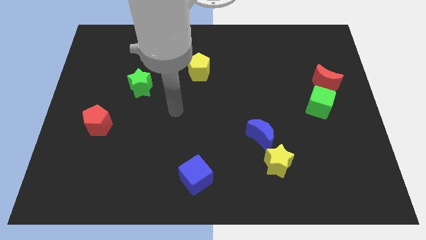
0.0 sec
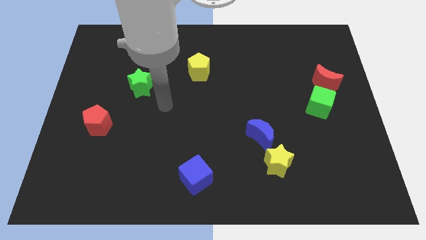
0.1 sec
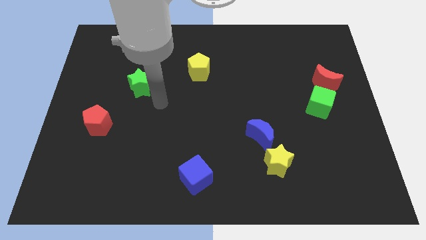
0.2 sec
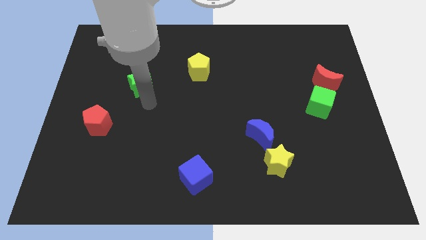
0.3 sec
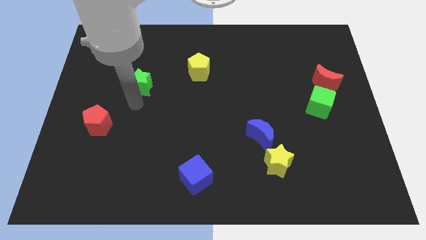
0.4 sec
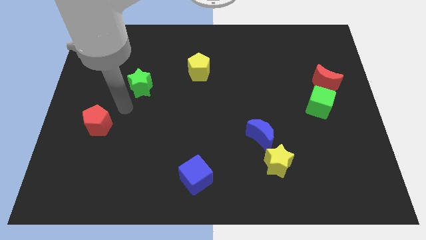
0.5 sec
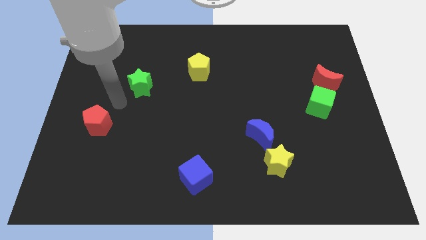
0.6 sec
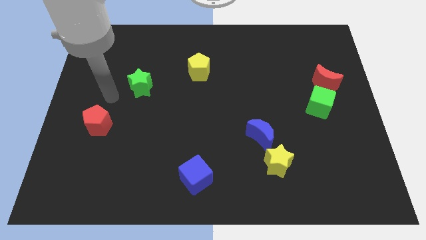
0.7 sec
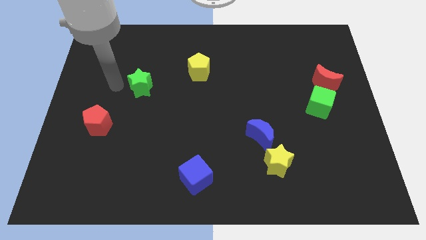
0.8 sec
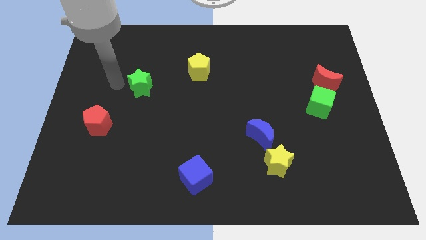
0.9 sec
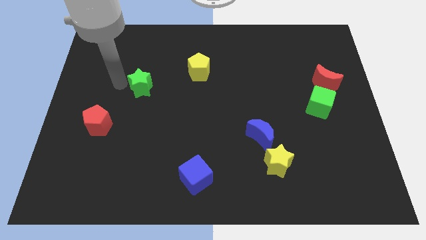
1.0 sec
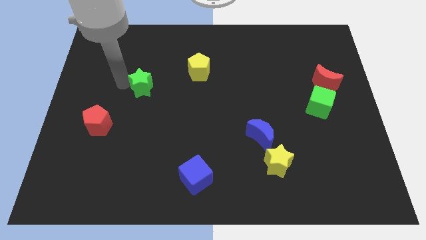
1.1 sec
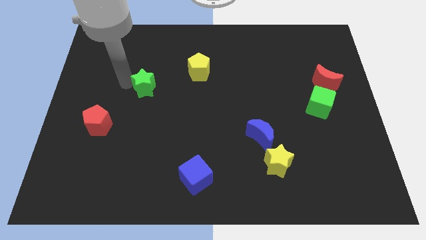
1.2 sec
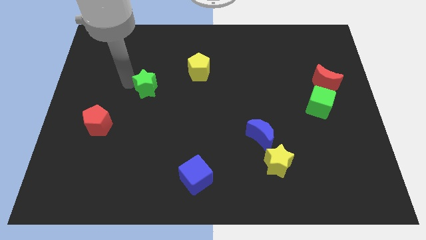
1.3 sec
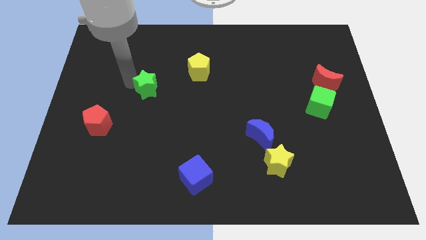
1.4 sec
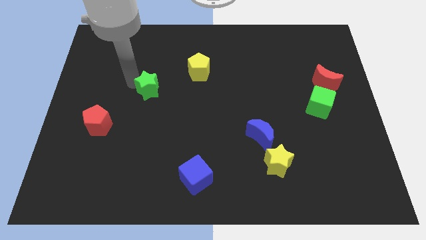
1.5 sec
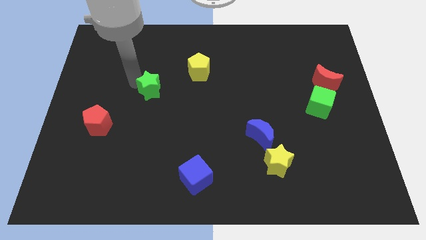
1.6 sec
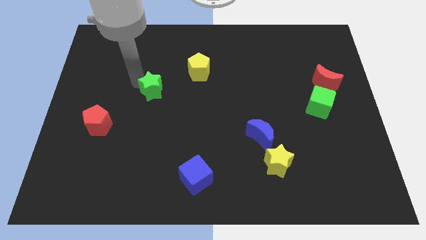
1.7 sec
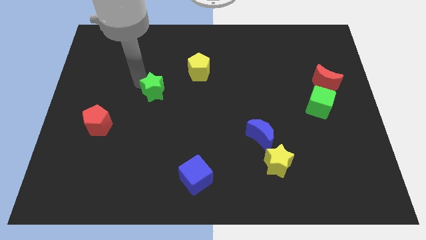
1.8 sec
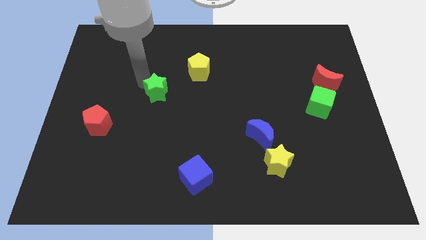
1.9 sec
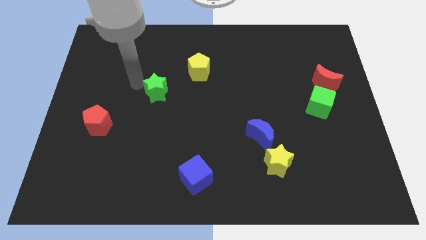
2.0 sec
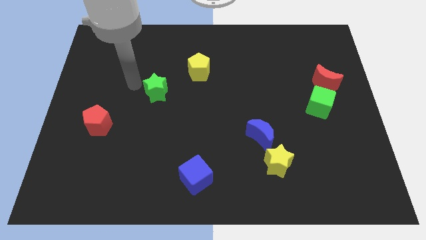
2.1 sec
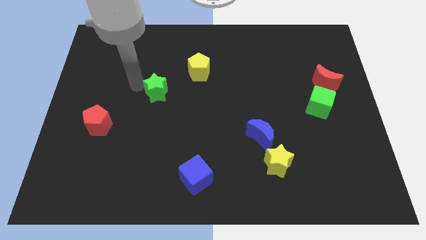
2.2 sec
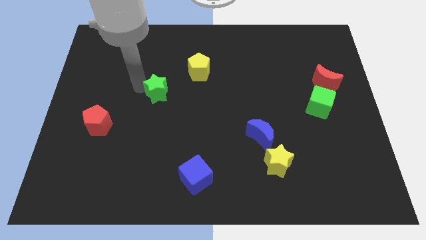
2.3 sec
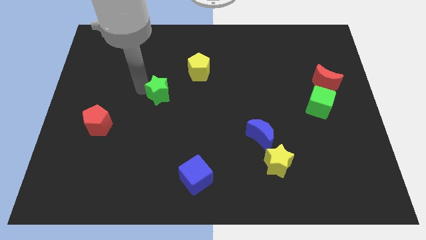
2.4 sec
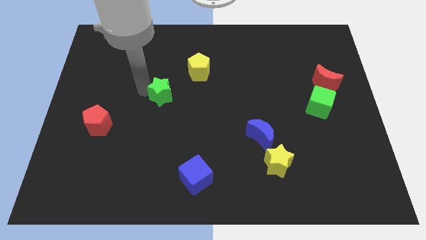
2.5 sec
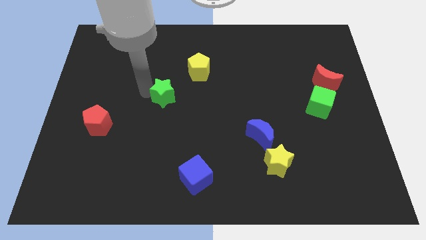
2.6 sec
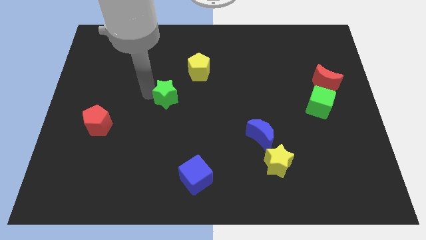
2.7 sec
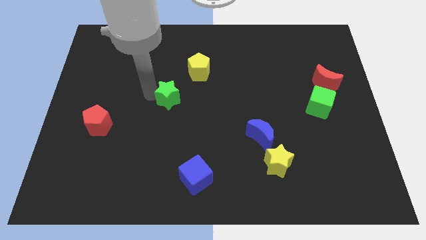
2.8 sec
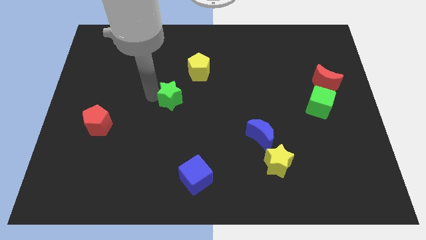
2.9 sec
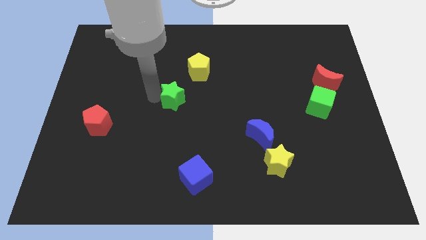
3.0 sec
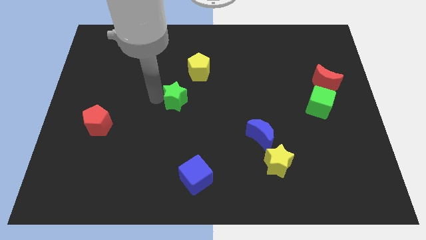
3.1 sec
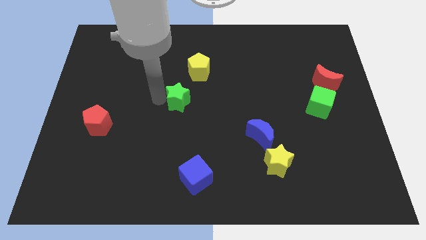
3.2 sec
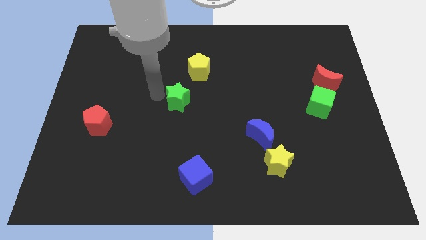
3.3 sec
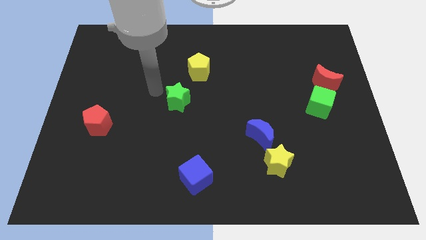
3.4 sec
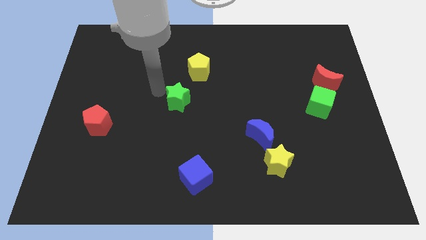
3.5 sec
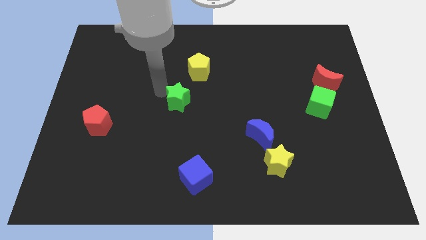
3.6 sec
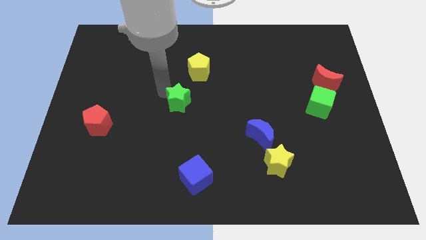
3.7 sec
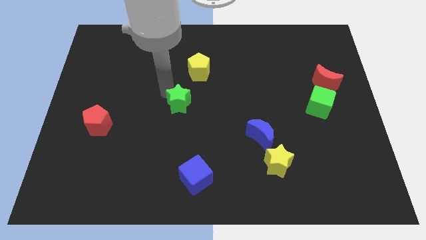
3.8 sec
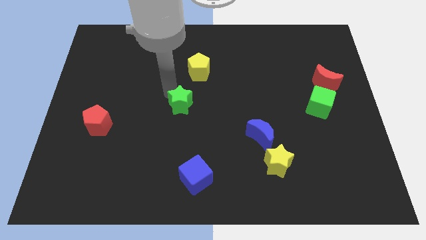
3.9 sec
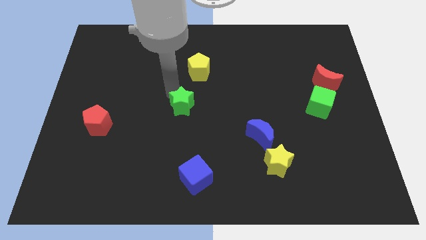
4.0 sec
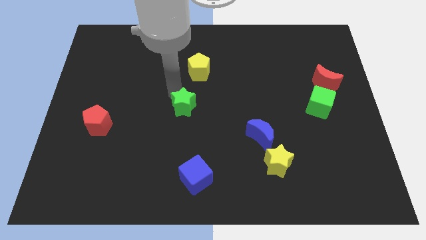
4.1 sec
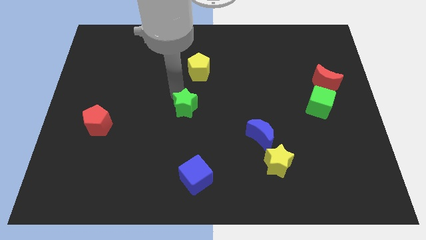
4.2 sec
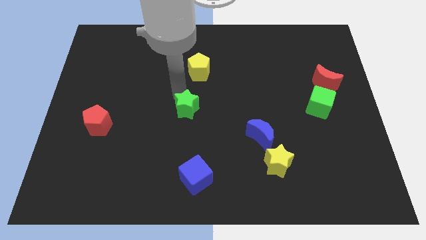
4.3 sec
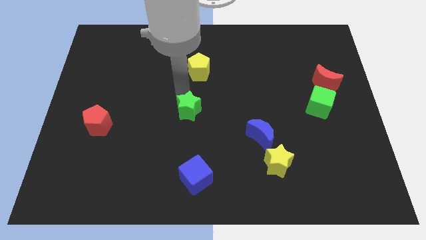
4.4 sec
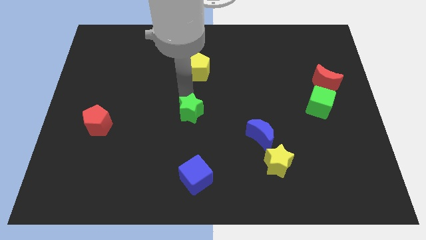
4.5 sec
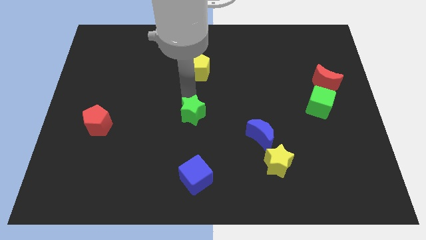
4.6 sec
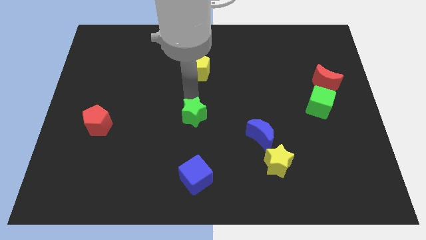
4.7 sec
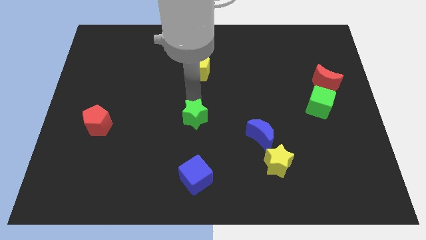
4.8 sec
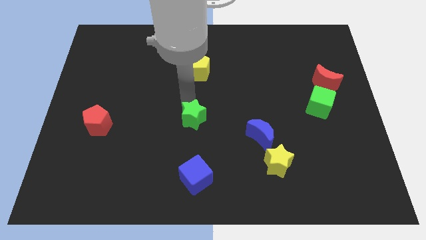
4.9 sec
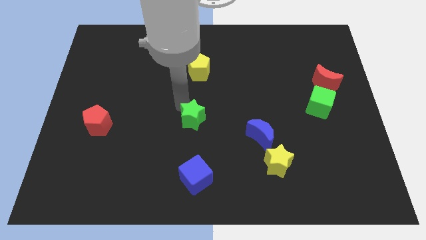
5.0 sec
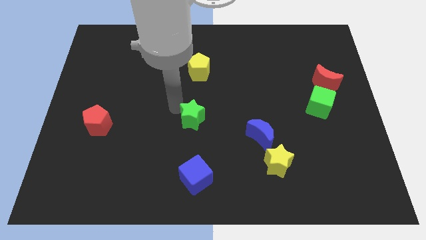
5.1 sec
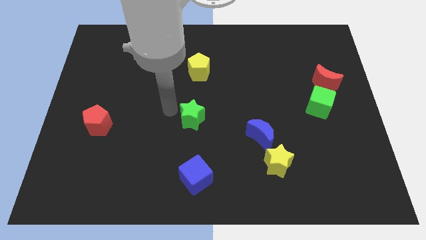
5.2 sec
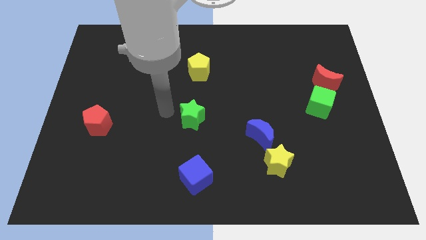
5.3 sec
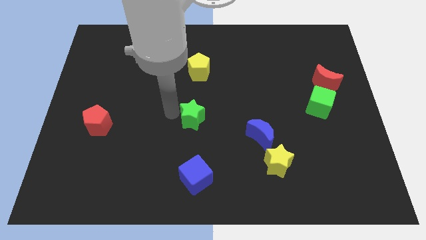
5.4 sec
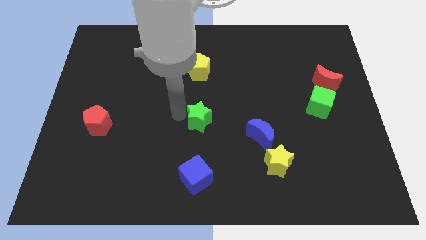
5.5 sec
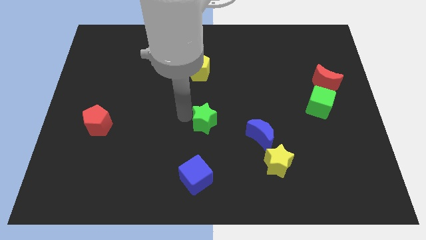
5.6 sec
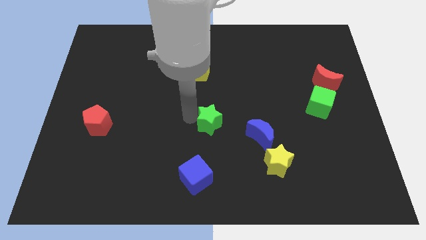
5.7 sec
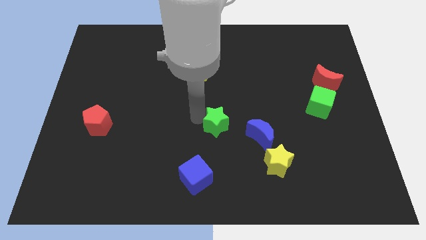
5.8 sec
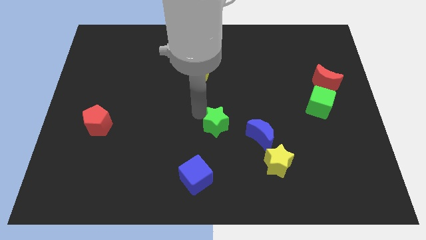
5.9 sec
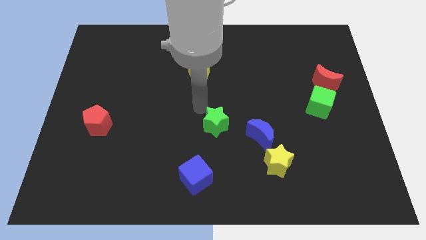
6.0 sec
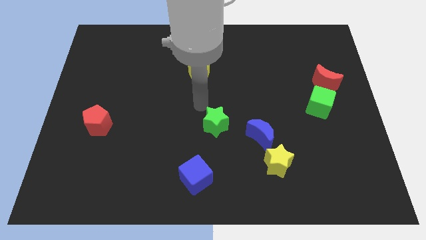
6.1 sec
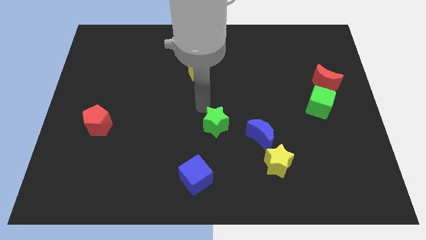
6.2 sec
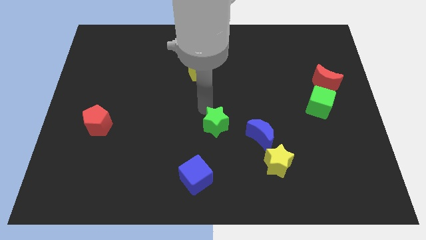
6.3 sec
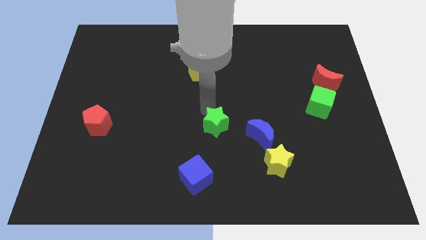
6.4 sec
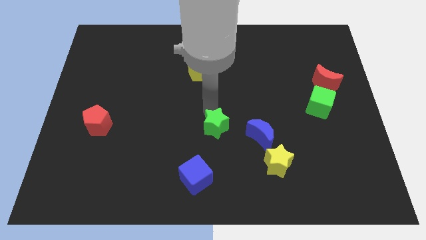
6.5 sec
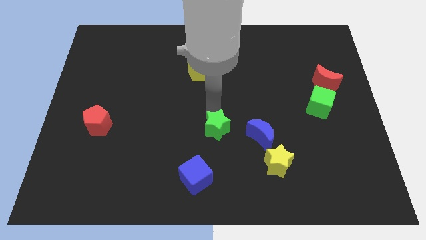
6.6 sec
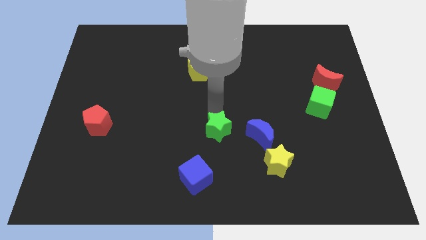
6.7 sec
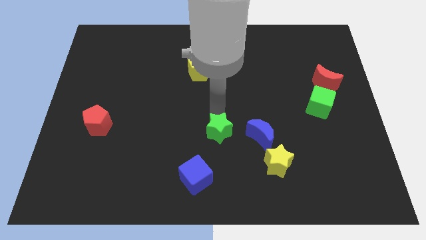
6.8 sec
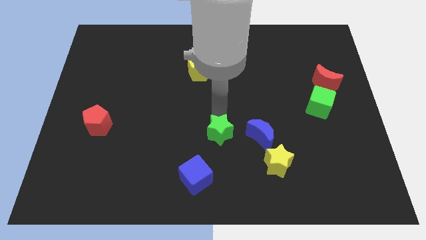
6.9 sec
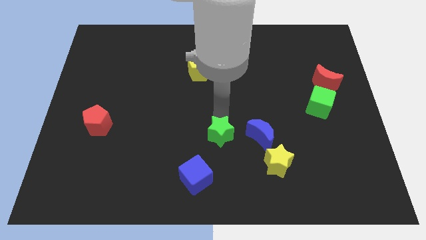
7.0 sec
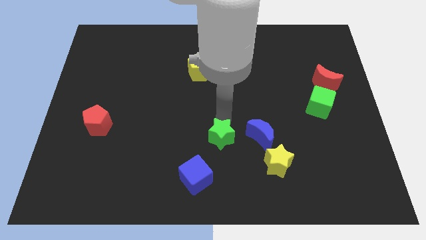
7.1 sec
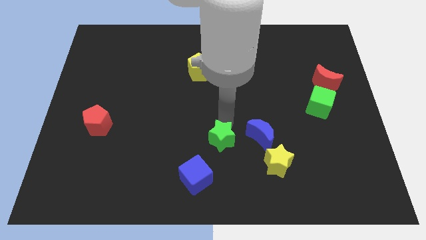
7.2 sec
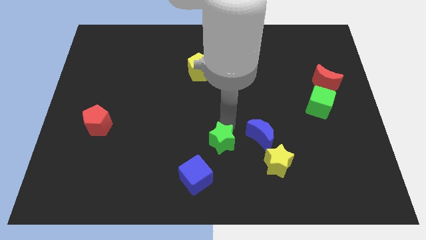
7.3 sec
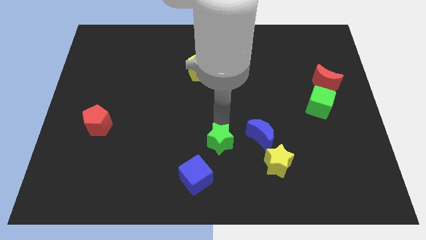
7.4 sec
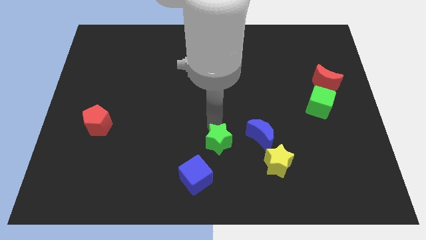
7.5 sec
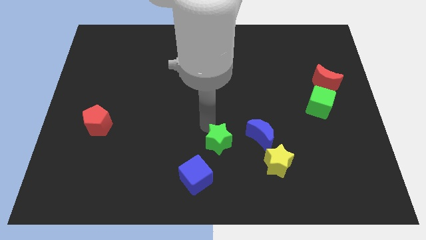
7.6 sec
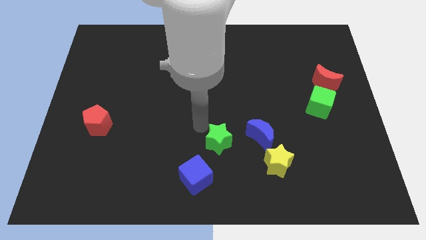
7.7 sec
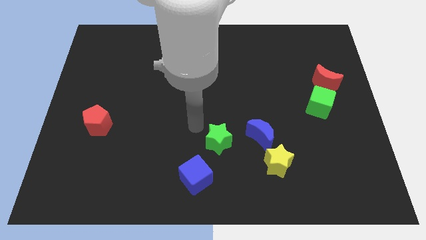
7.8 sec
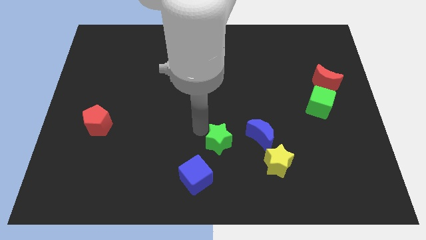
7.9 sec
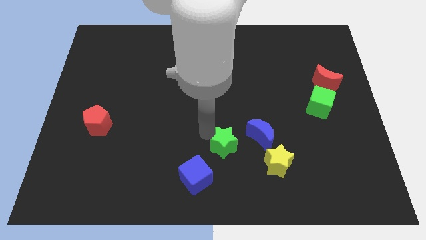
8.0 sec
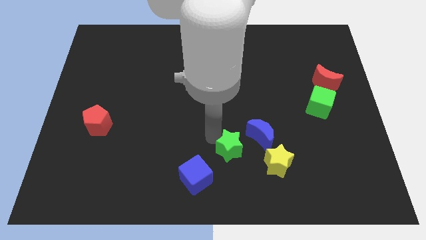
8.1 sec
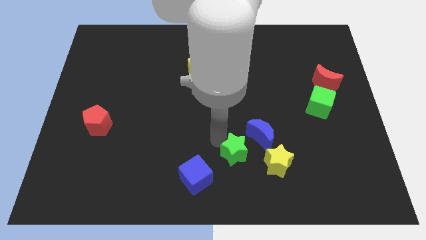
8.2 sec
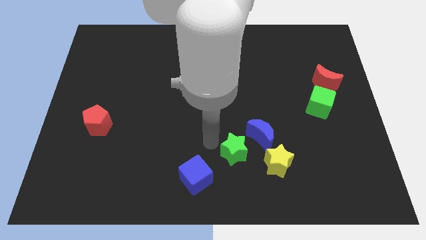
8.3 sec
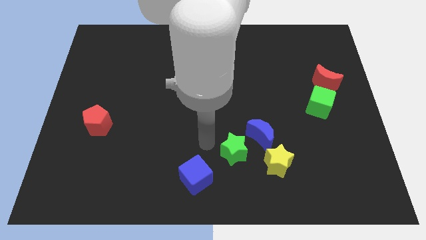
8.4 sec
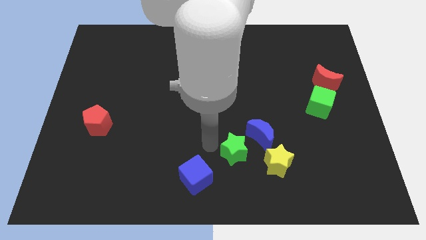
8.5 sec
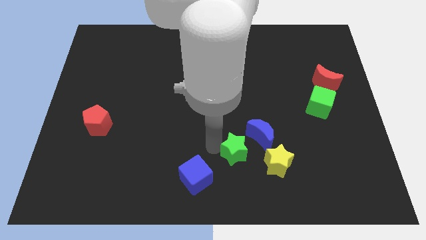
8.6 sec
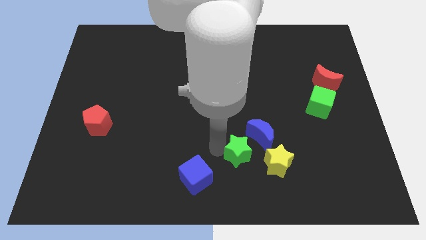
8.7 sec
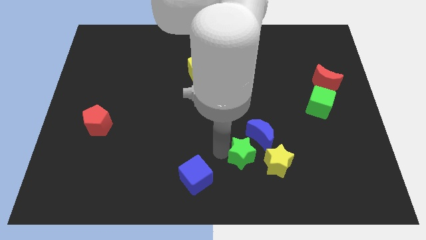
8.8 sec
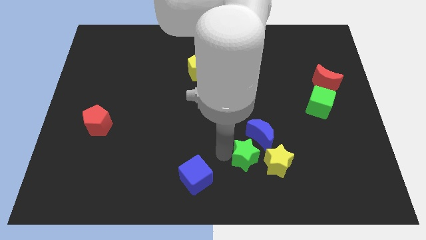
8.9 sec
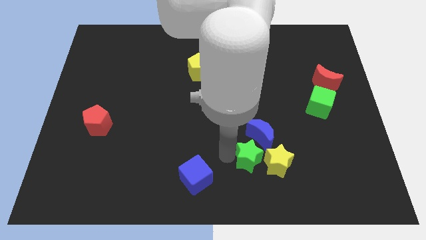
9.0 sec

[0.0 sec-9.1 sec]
slide the green star towards the yellow star
